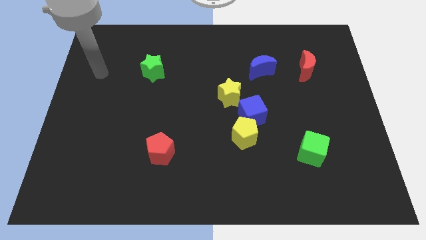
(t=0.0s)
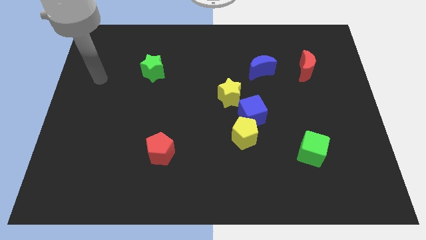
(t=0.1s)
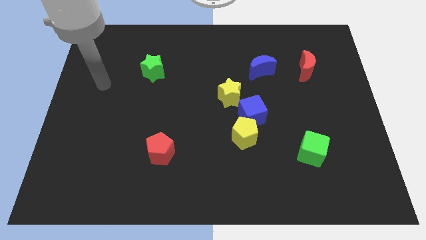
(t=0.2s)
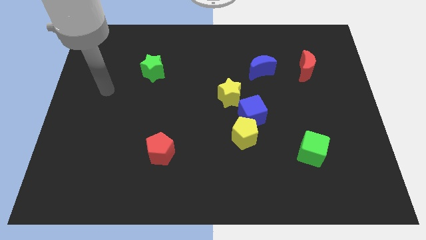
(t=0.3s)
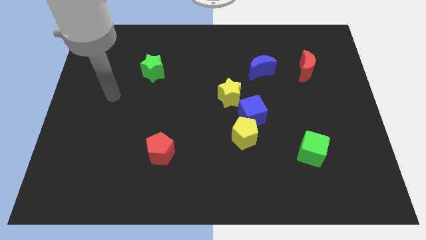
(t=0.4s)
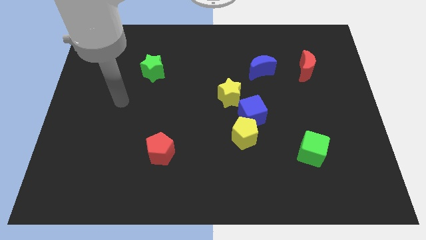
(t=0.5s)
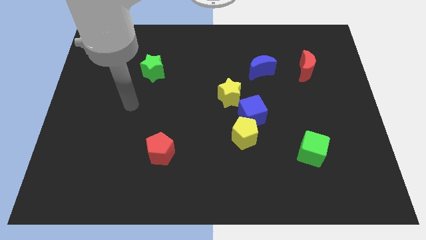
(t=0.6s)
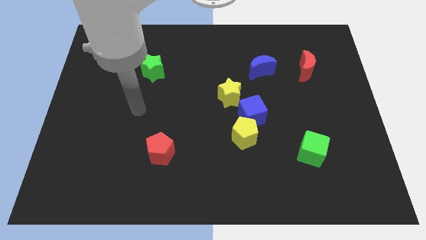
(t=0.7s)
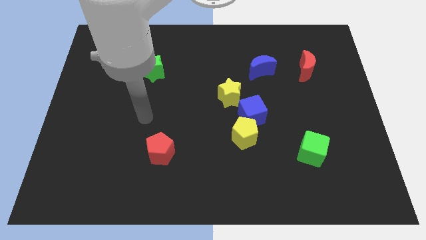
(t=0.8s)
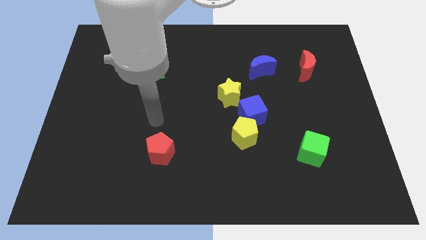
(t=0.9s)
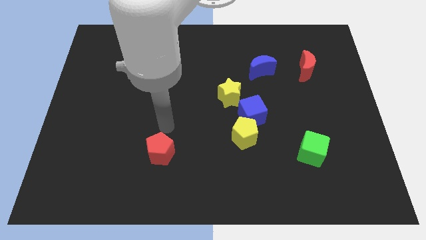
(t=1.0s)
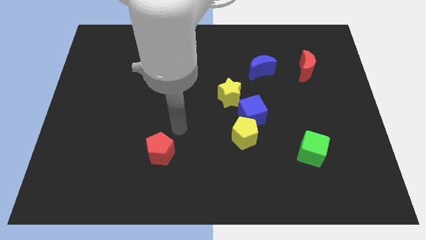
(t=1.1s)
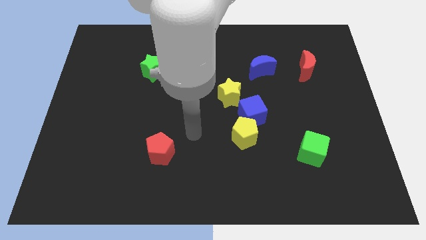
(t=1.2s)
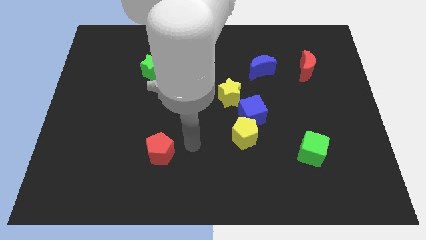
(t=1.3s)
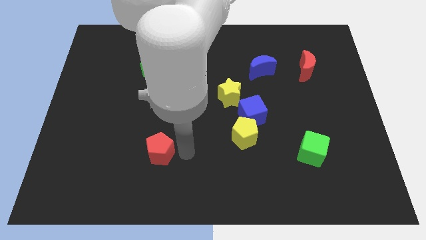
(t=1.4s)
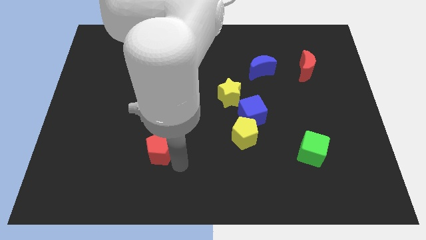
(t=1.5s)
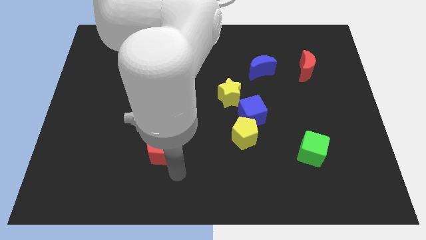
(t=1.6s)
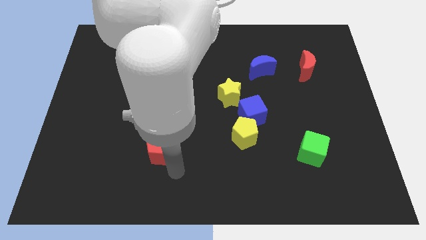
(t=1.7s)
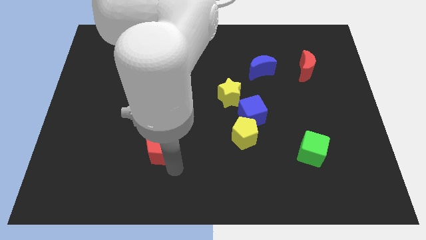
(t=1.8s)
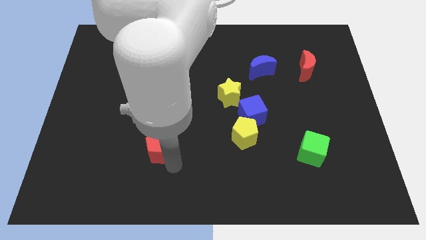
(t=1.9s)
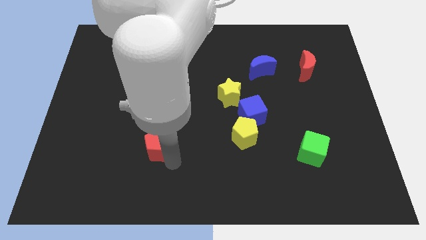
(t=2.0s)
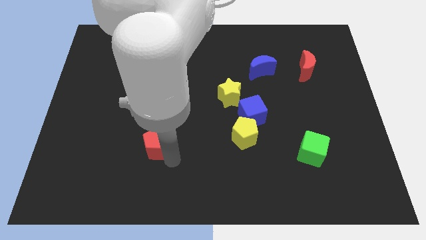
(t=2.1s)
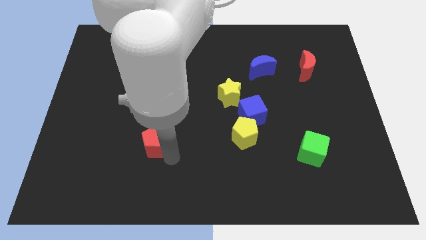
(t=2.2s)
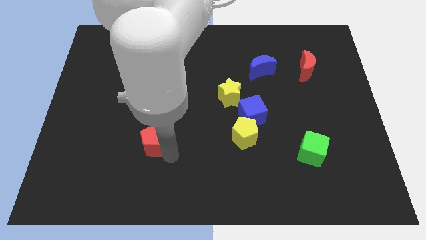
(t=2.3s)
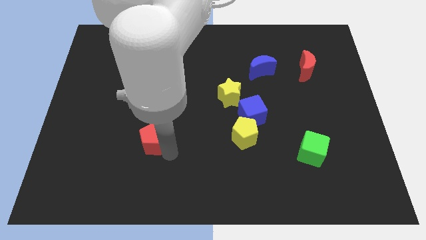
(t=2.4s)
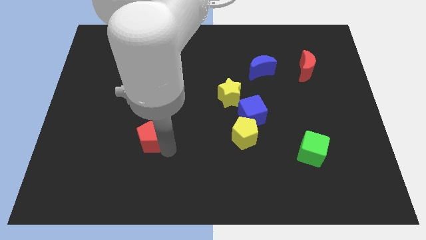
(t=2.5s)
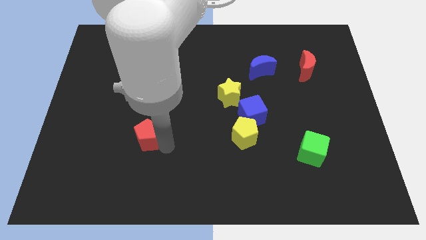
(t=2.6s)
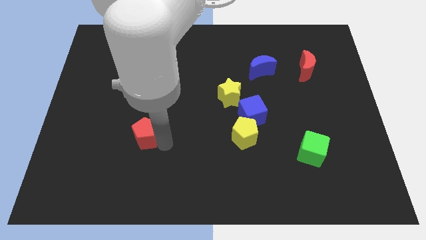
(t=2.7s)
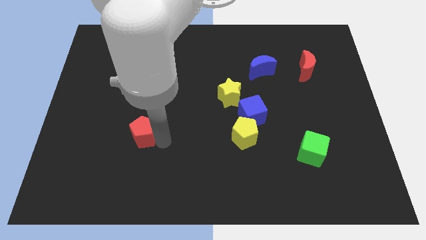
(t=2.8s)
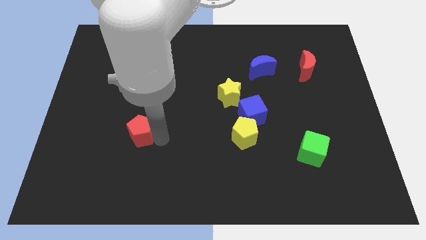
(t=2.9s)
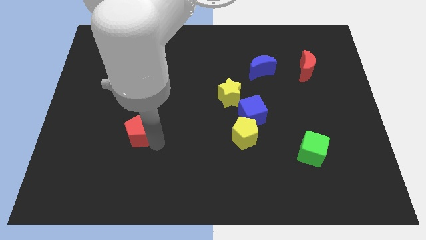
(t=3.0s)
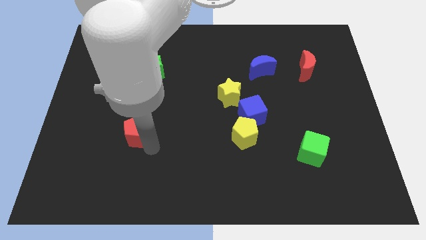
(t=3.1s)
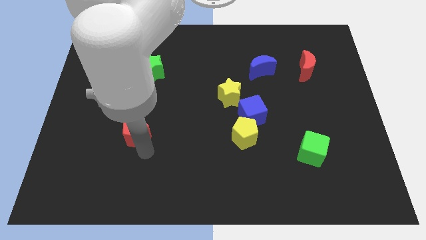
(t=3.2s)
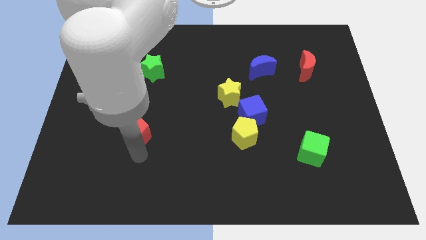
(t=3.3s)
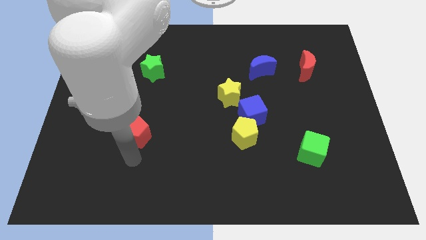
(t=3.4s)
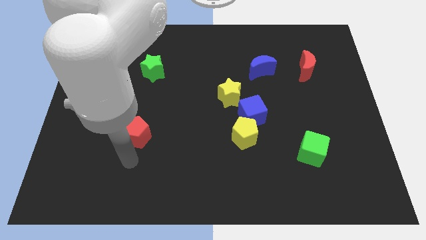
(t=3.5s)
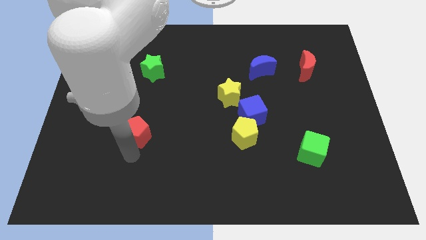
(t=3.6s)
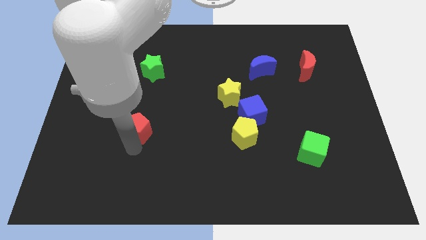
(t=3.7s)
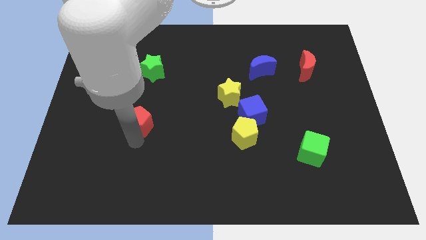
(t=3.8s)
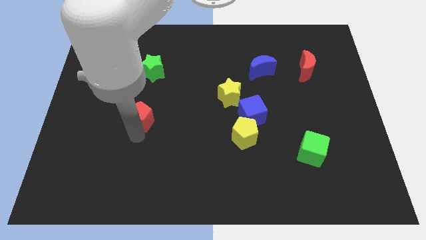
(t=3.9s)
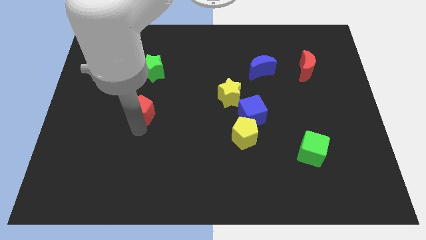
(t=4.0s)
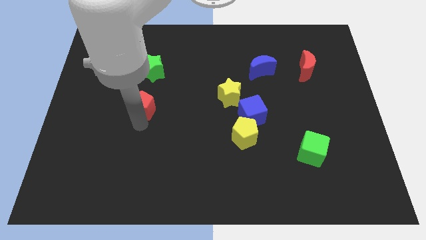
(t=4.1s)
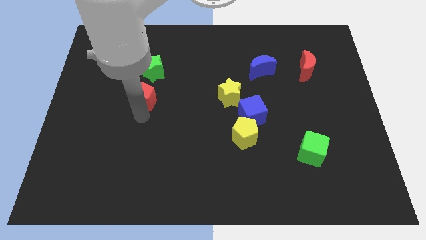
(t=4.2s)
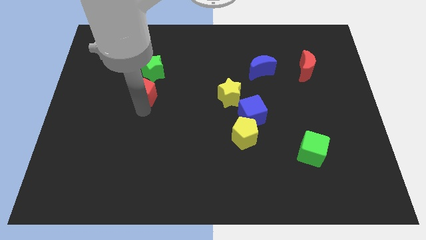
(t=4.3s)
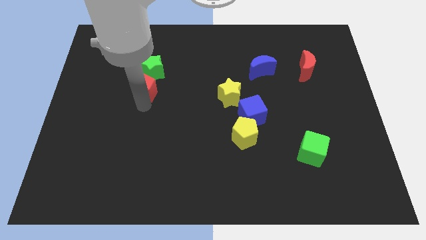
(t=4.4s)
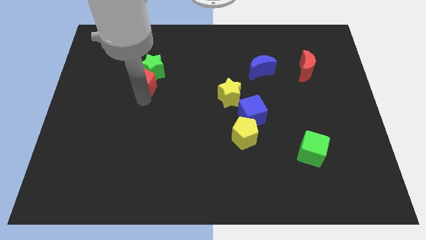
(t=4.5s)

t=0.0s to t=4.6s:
put the red pentagon close to the green star

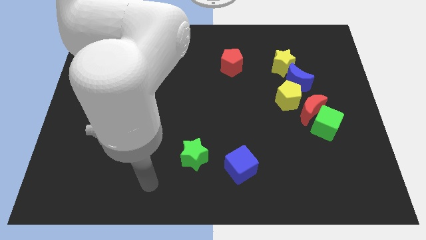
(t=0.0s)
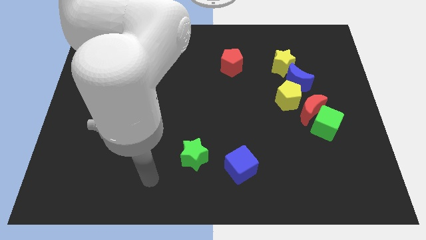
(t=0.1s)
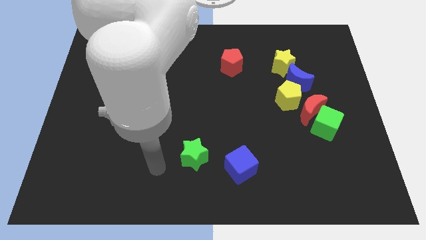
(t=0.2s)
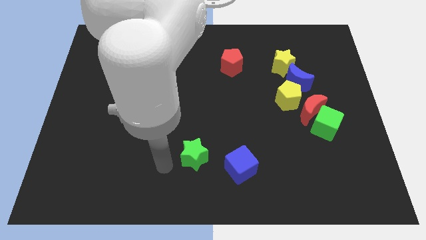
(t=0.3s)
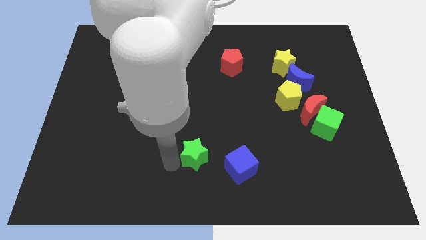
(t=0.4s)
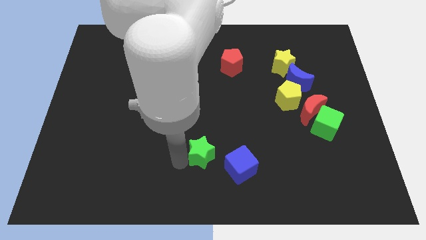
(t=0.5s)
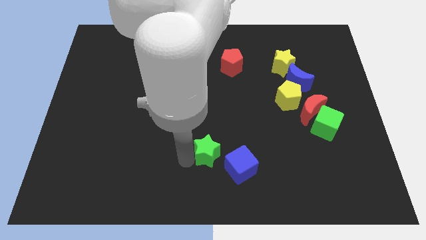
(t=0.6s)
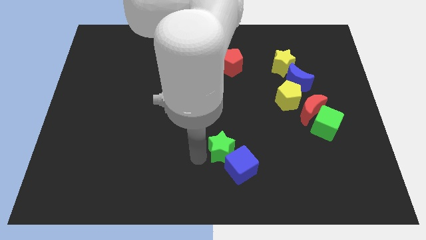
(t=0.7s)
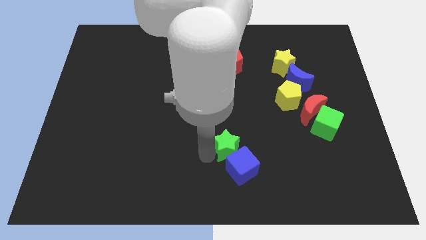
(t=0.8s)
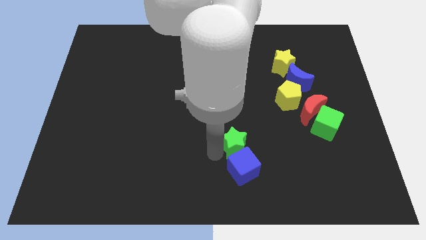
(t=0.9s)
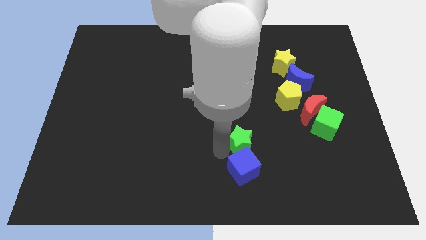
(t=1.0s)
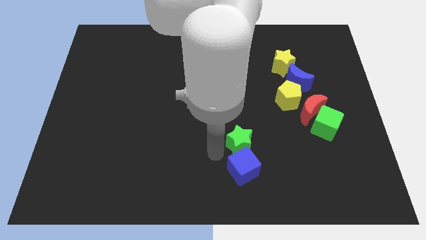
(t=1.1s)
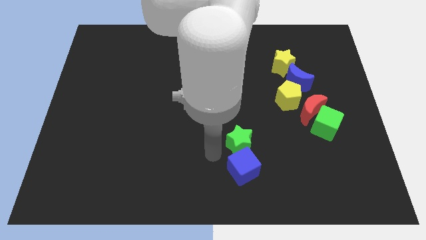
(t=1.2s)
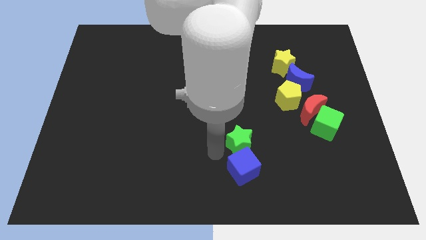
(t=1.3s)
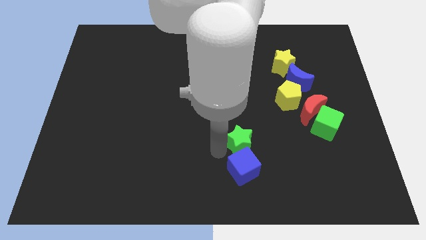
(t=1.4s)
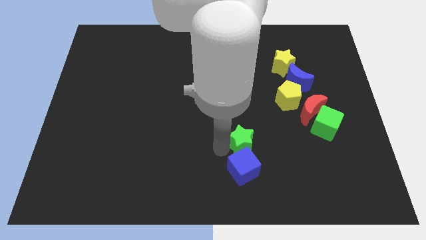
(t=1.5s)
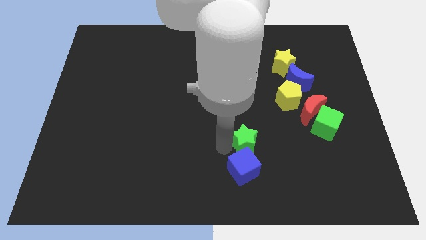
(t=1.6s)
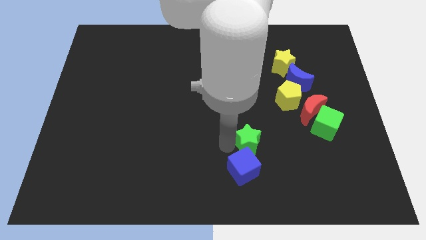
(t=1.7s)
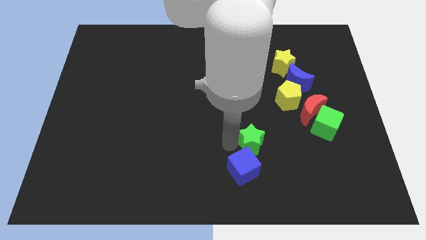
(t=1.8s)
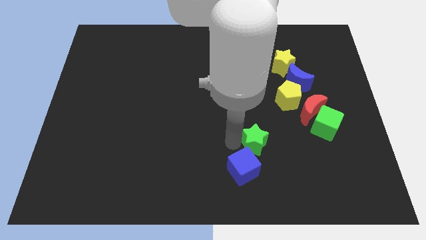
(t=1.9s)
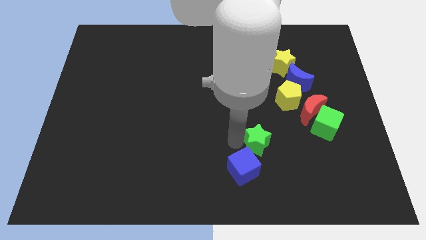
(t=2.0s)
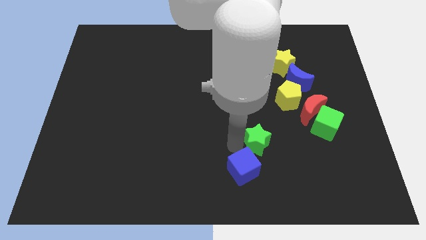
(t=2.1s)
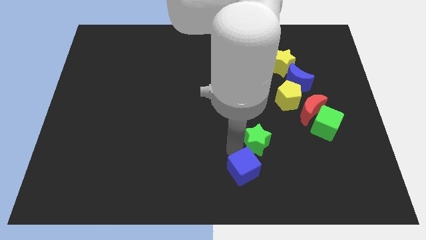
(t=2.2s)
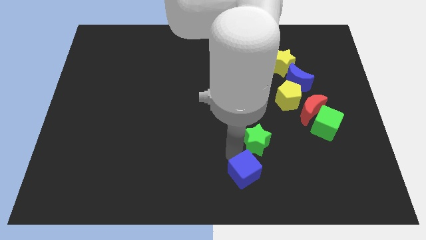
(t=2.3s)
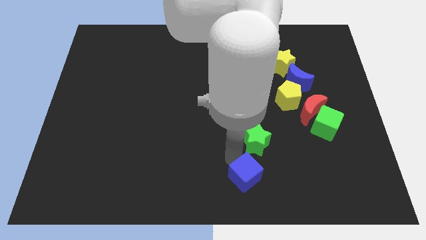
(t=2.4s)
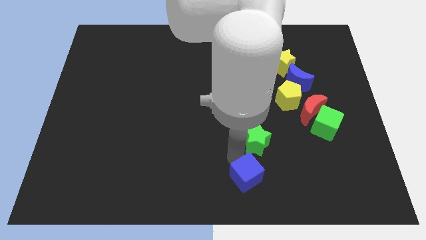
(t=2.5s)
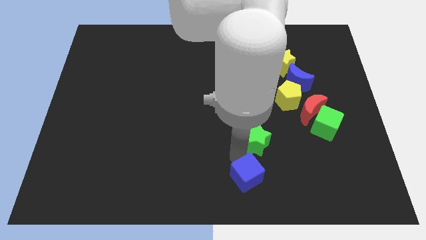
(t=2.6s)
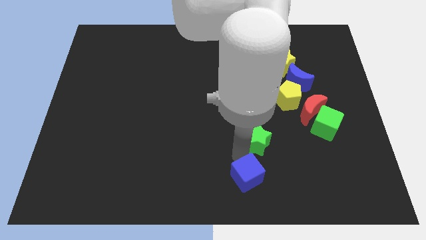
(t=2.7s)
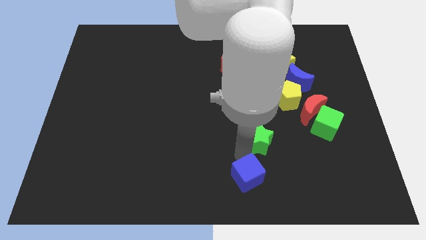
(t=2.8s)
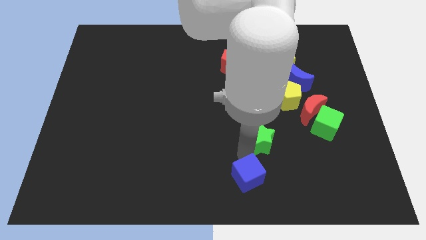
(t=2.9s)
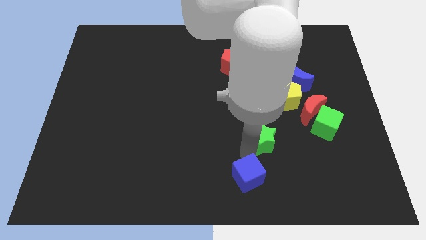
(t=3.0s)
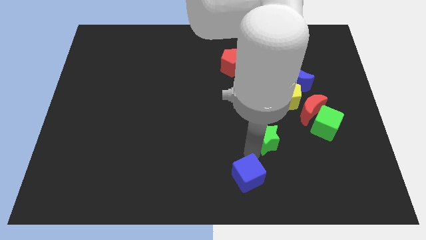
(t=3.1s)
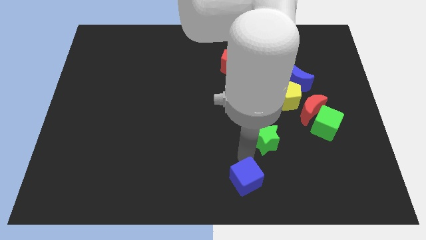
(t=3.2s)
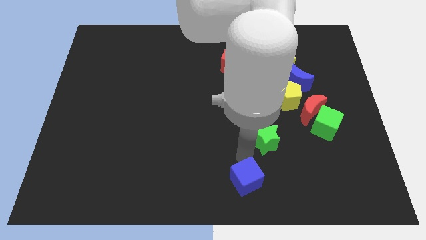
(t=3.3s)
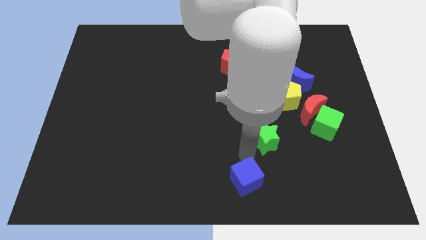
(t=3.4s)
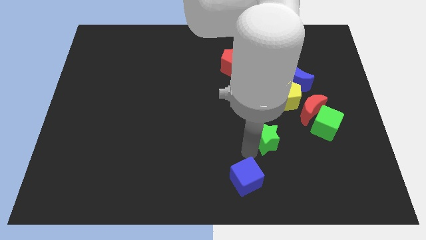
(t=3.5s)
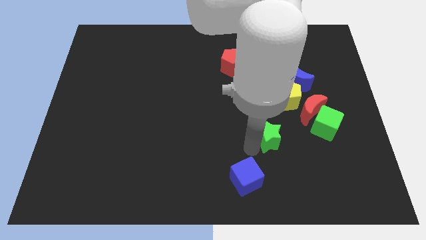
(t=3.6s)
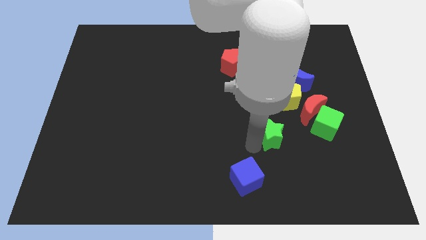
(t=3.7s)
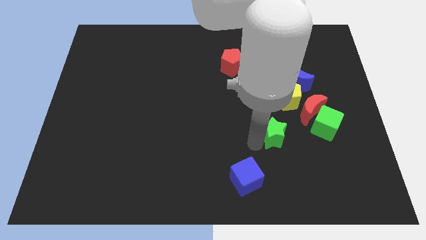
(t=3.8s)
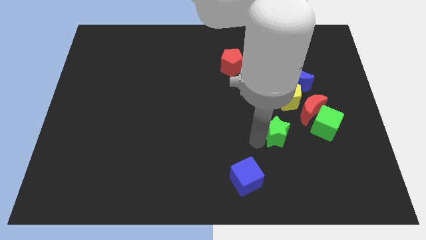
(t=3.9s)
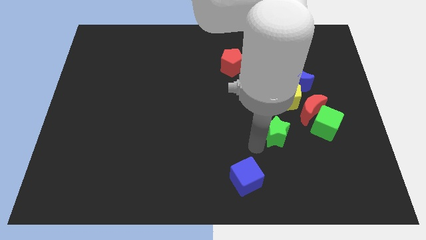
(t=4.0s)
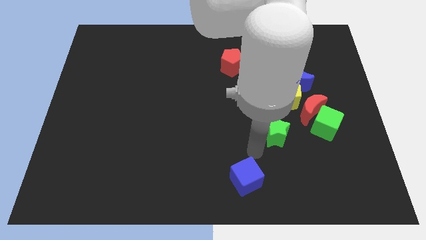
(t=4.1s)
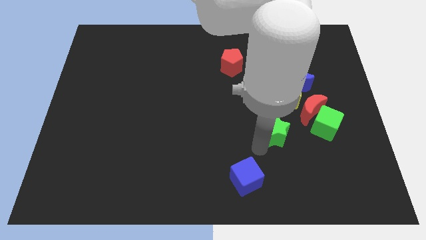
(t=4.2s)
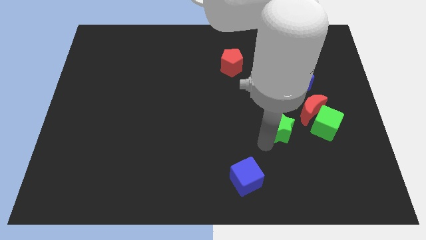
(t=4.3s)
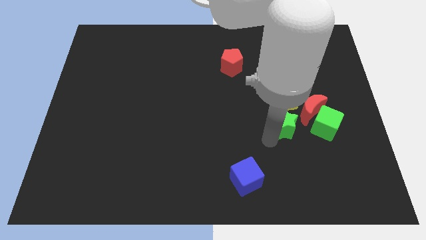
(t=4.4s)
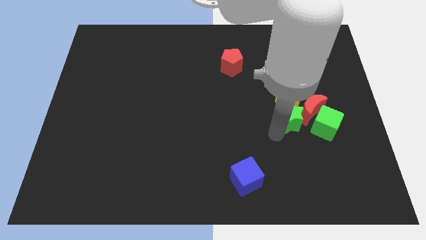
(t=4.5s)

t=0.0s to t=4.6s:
push the green star to the red moon
